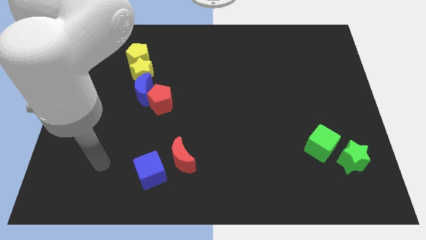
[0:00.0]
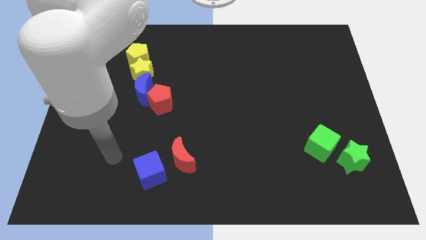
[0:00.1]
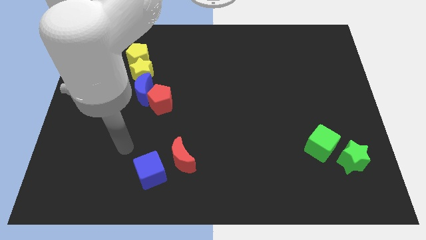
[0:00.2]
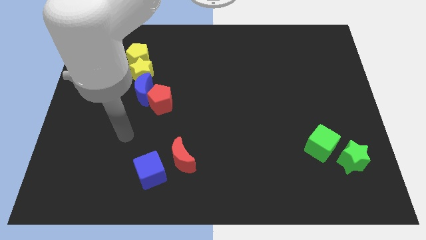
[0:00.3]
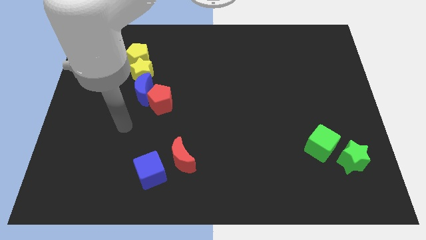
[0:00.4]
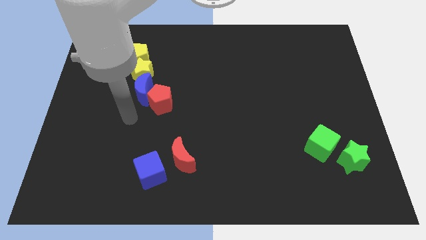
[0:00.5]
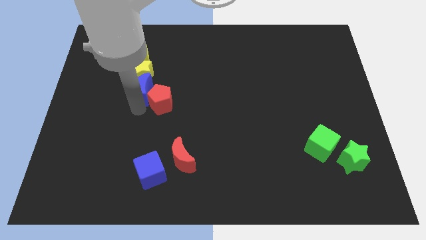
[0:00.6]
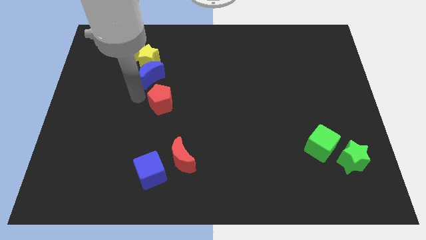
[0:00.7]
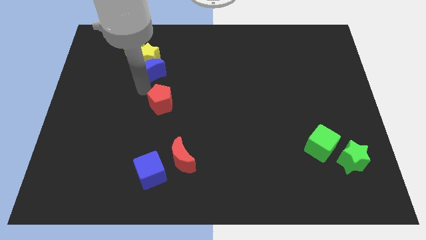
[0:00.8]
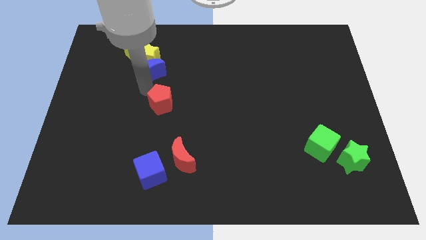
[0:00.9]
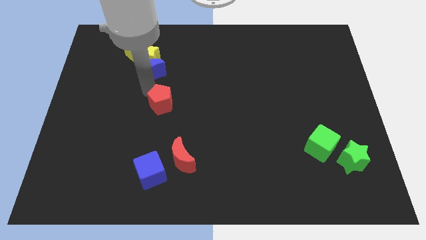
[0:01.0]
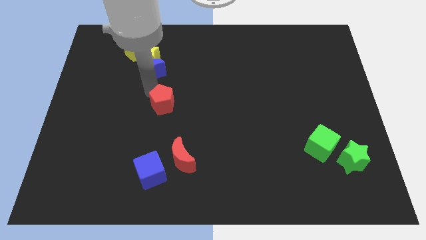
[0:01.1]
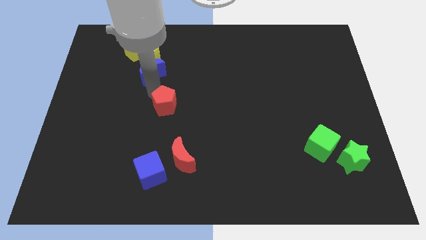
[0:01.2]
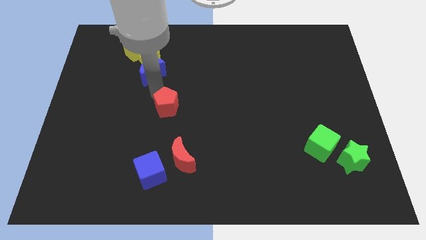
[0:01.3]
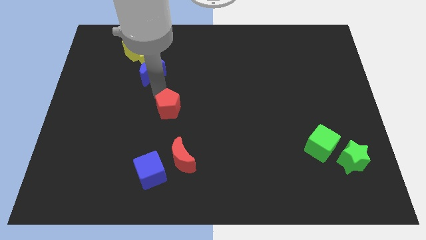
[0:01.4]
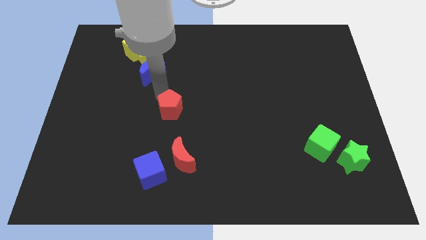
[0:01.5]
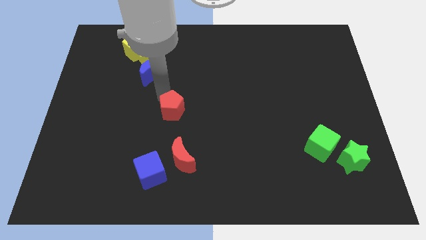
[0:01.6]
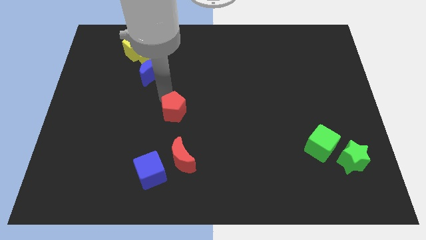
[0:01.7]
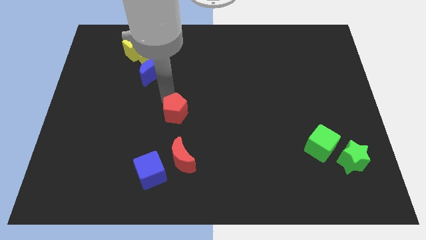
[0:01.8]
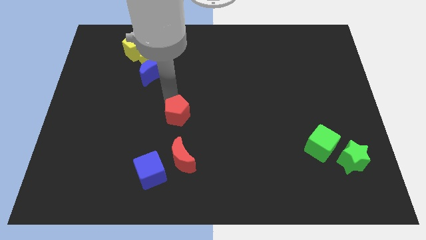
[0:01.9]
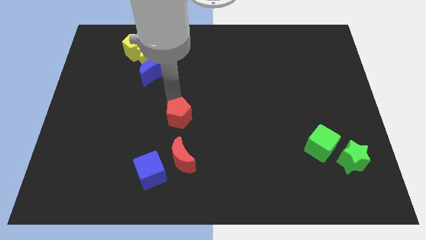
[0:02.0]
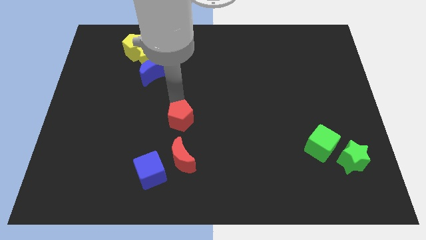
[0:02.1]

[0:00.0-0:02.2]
slide the red pentagon a little downwards and right

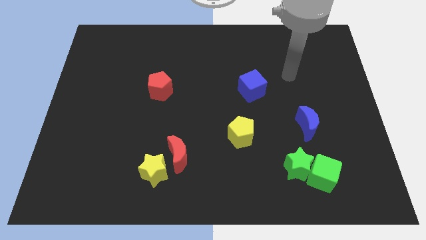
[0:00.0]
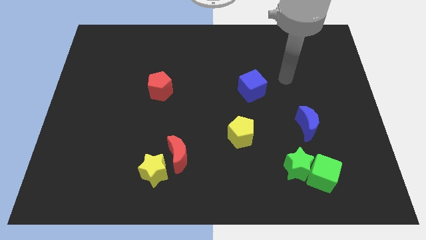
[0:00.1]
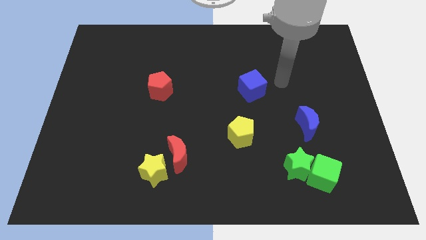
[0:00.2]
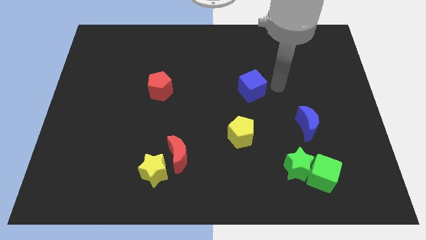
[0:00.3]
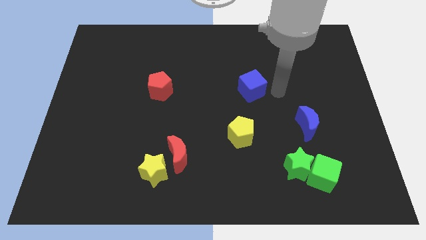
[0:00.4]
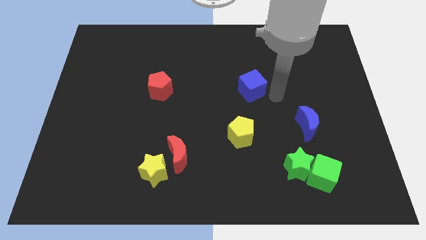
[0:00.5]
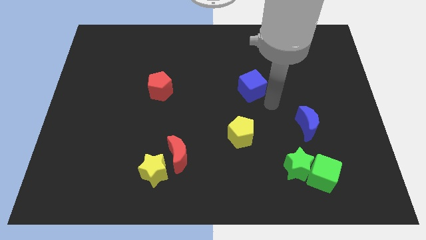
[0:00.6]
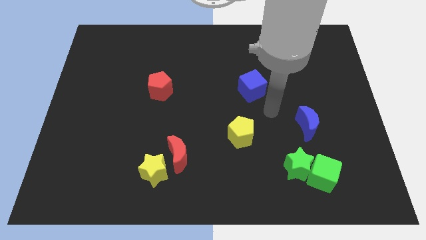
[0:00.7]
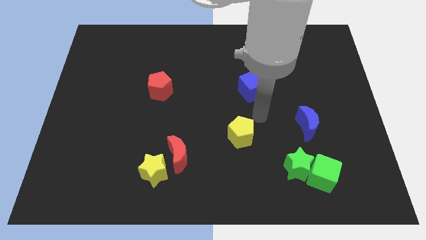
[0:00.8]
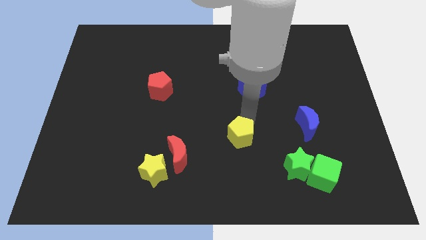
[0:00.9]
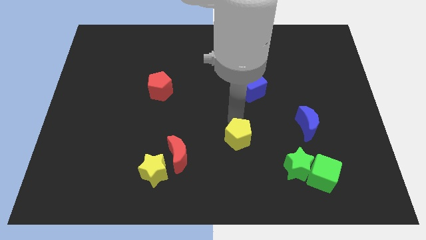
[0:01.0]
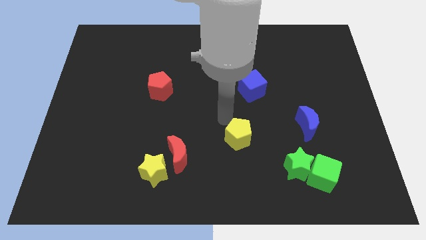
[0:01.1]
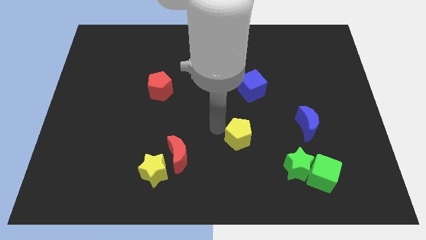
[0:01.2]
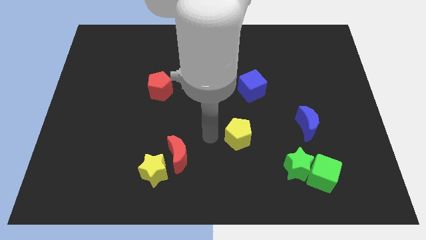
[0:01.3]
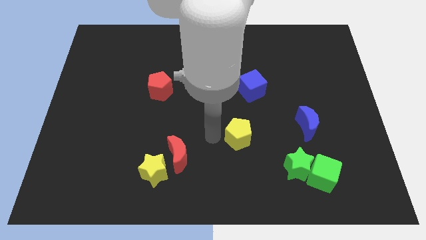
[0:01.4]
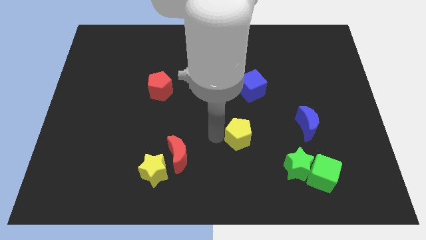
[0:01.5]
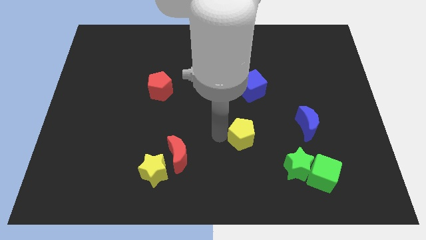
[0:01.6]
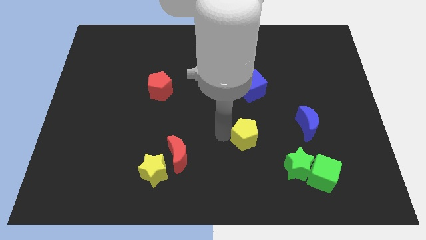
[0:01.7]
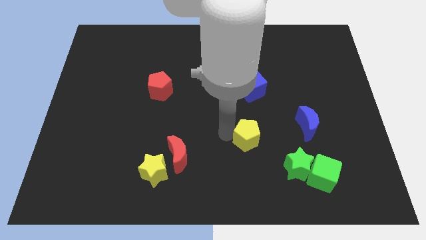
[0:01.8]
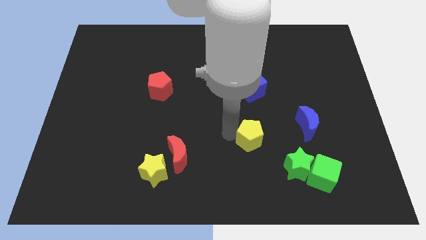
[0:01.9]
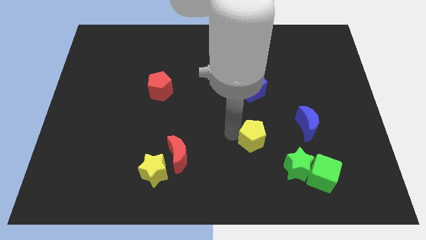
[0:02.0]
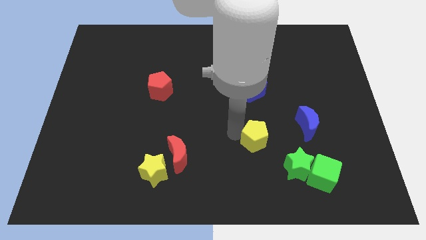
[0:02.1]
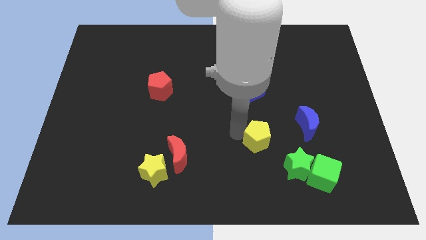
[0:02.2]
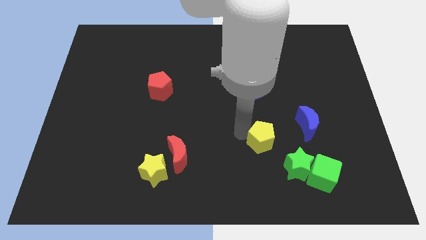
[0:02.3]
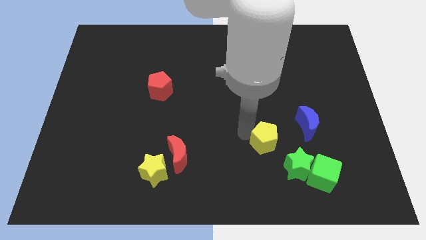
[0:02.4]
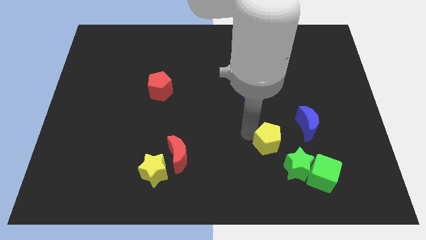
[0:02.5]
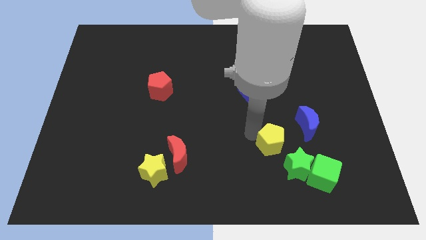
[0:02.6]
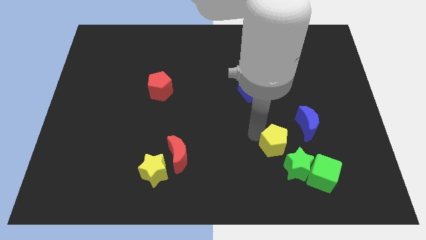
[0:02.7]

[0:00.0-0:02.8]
slightly slide the yellow pentagon right

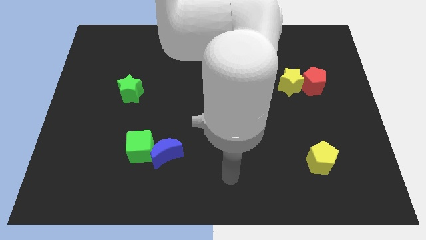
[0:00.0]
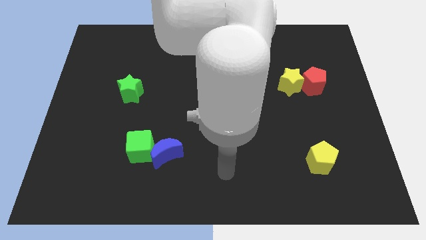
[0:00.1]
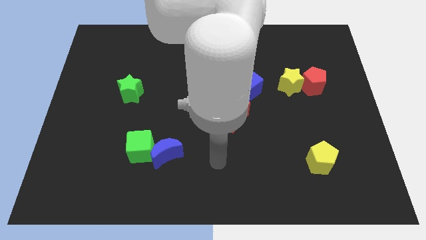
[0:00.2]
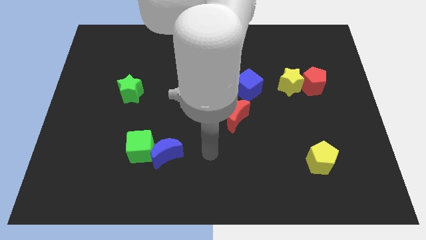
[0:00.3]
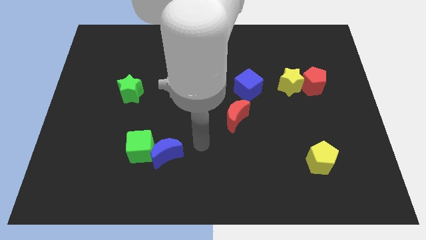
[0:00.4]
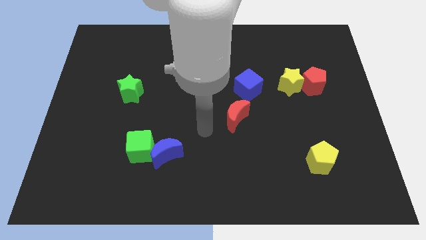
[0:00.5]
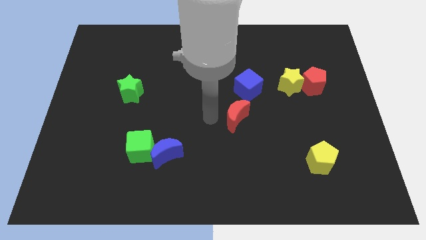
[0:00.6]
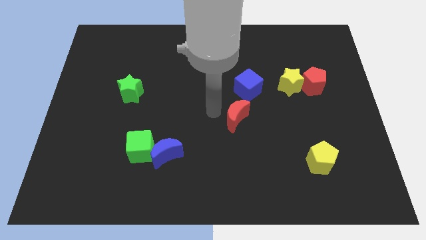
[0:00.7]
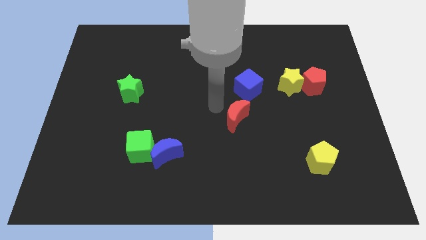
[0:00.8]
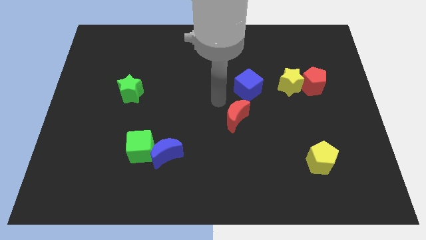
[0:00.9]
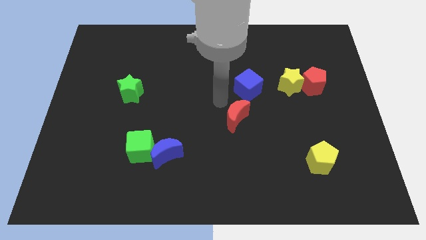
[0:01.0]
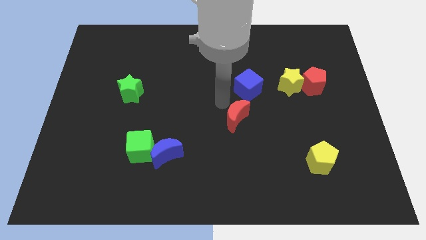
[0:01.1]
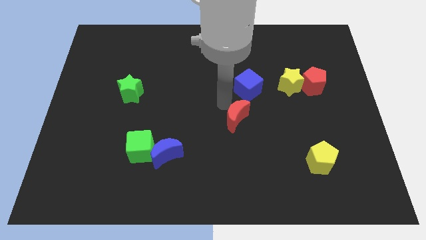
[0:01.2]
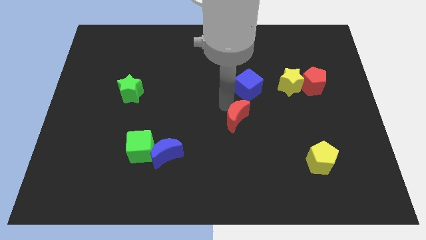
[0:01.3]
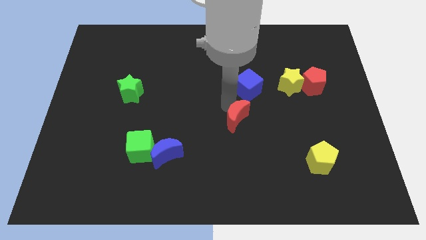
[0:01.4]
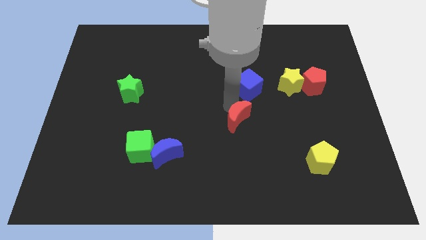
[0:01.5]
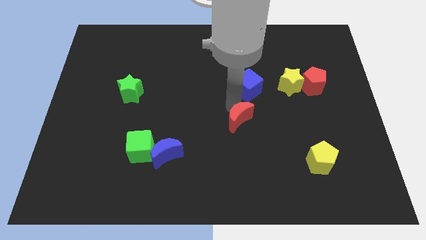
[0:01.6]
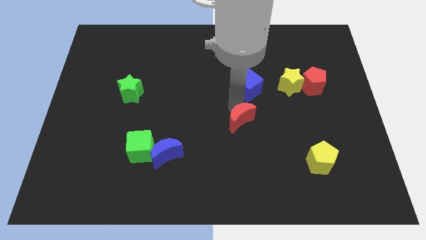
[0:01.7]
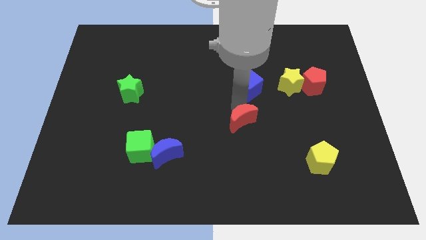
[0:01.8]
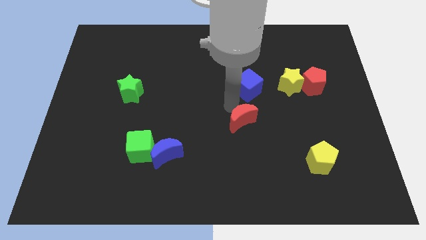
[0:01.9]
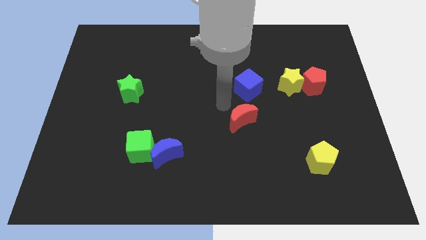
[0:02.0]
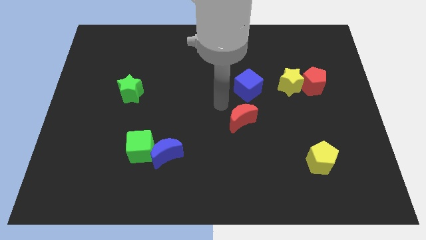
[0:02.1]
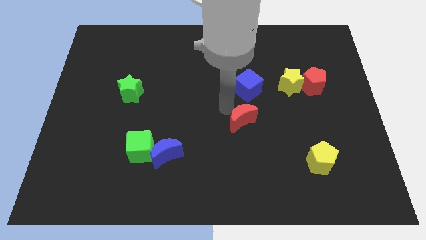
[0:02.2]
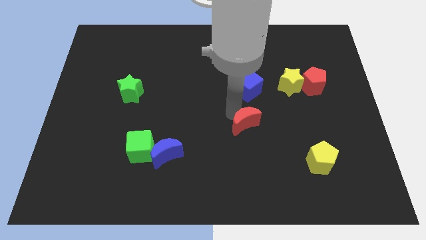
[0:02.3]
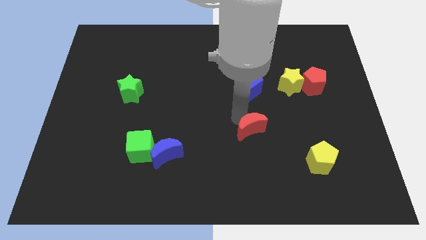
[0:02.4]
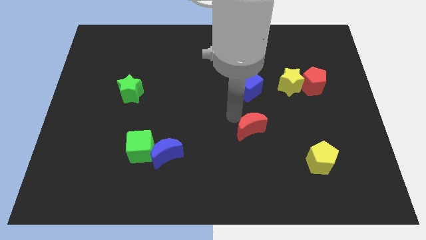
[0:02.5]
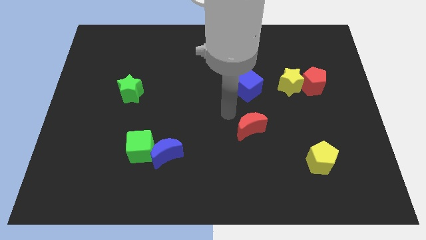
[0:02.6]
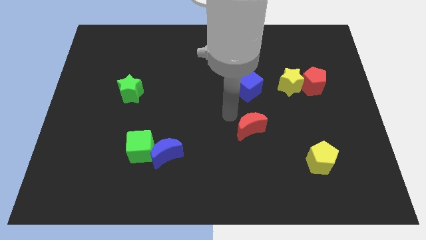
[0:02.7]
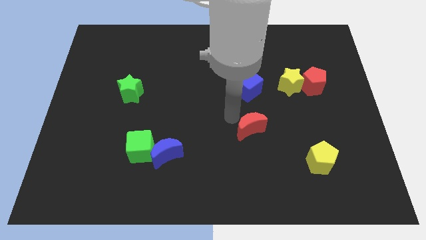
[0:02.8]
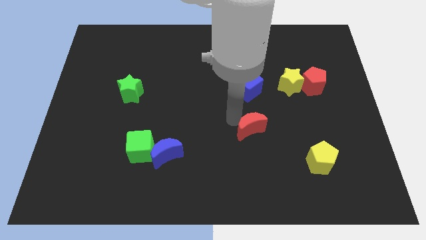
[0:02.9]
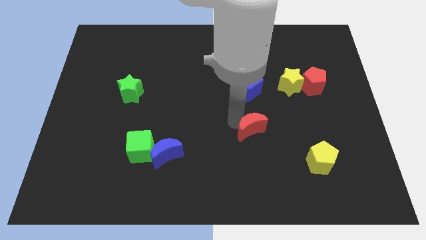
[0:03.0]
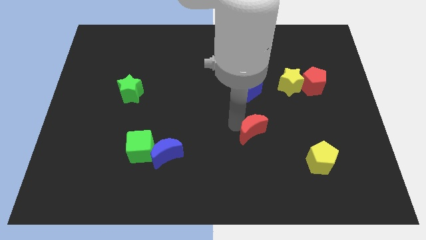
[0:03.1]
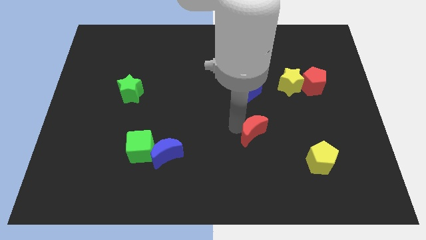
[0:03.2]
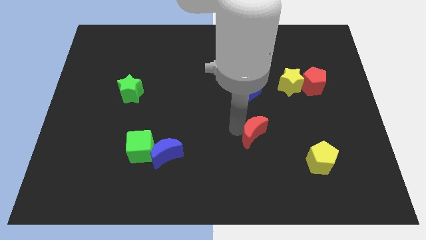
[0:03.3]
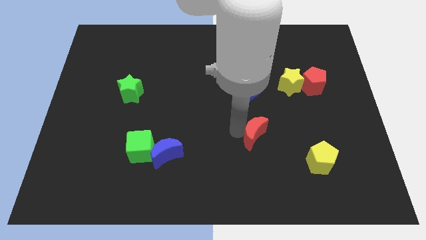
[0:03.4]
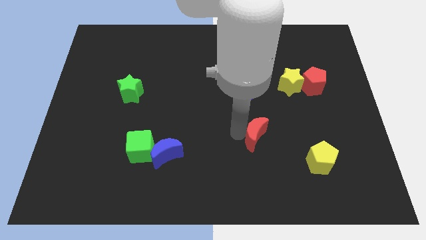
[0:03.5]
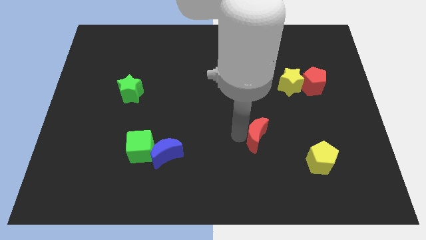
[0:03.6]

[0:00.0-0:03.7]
slightly push the red moon downwards and then to the right
